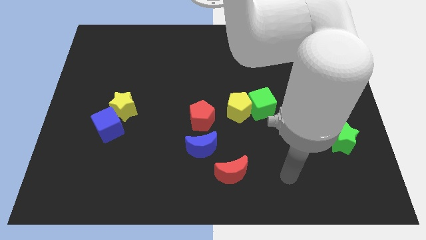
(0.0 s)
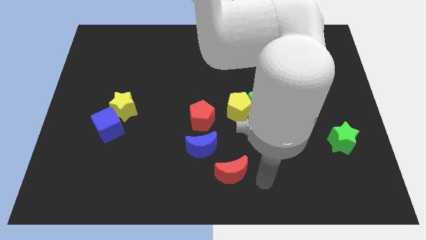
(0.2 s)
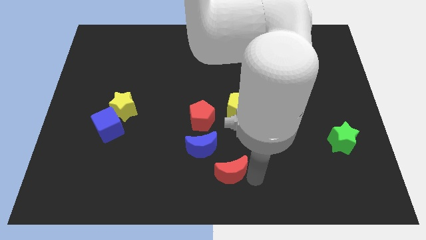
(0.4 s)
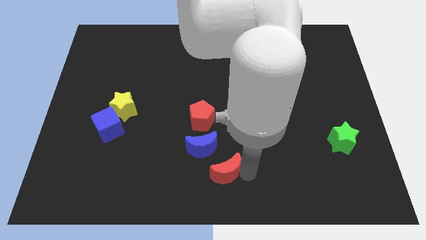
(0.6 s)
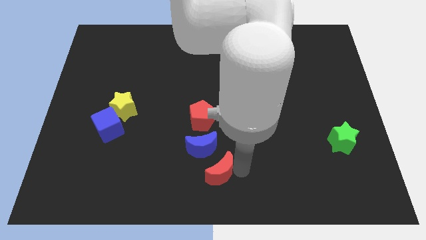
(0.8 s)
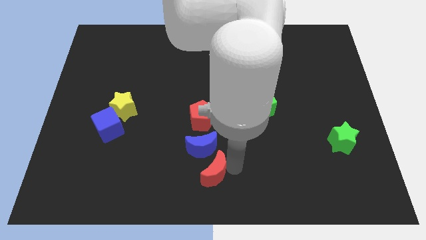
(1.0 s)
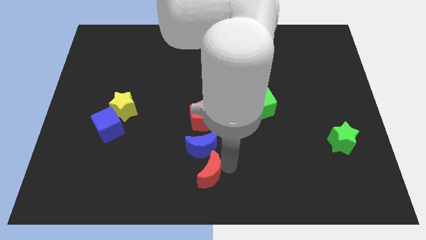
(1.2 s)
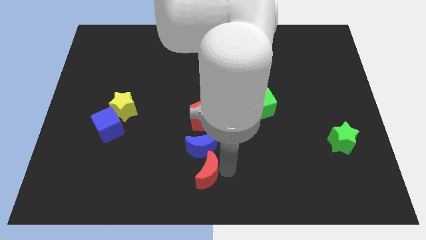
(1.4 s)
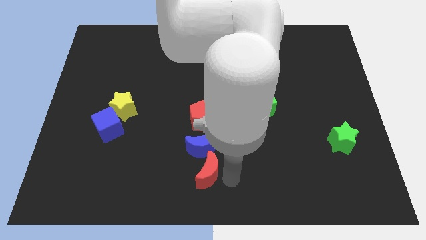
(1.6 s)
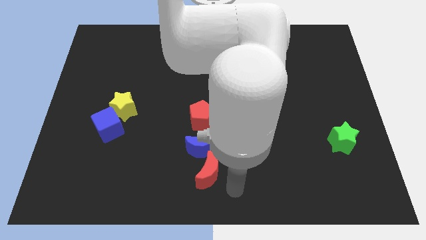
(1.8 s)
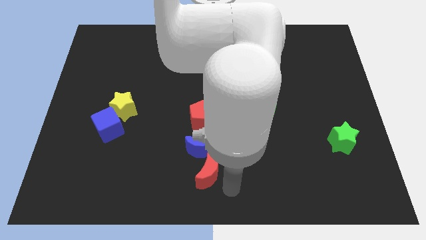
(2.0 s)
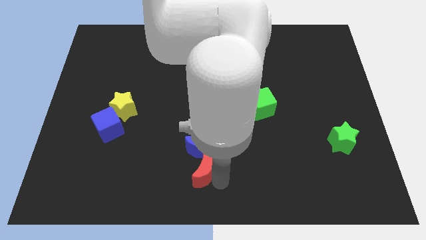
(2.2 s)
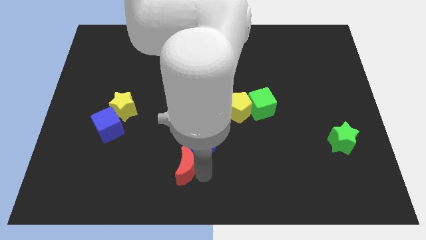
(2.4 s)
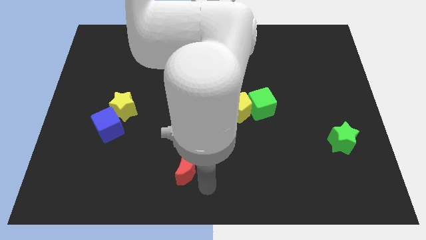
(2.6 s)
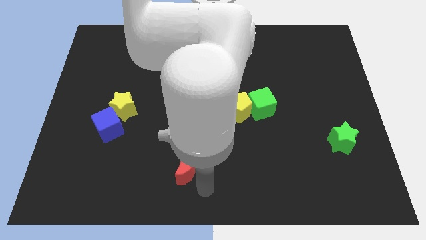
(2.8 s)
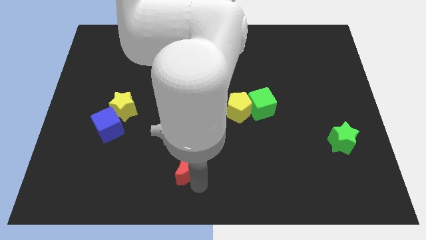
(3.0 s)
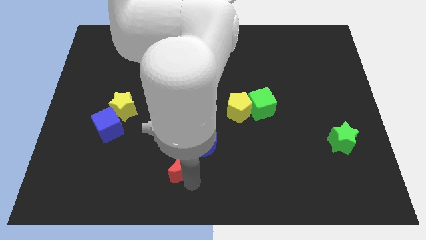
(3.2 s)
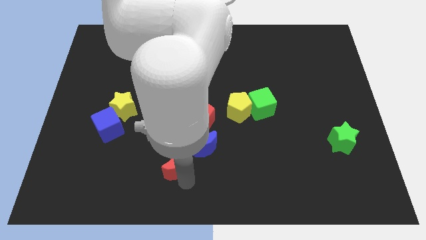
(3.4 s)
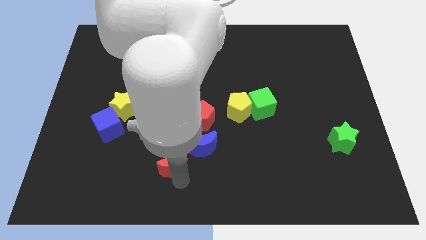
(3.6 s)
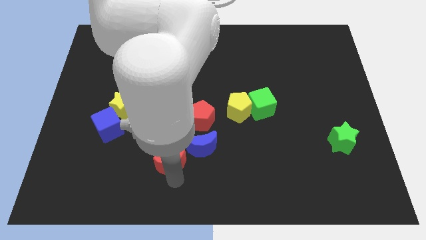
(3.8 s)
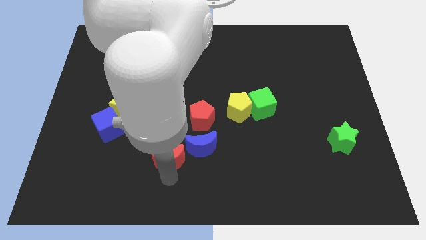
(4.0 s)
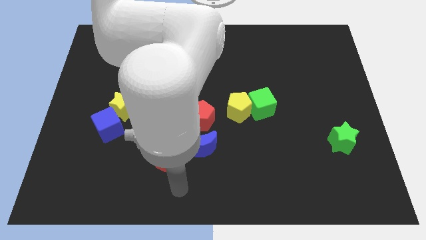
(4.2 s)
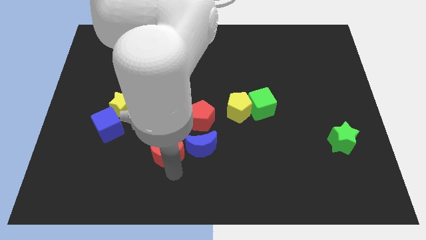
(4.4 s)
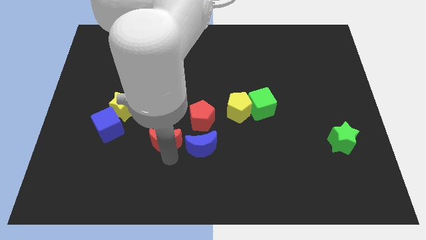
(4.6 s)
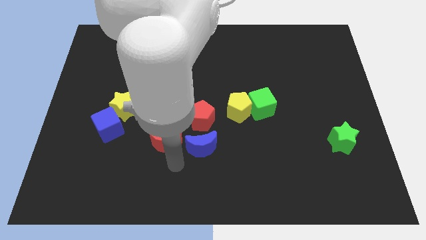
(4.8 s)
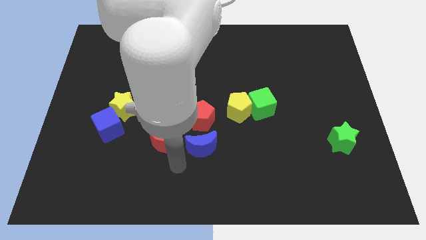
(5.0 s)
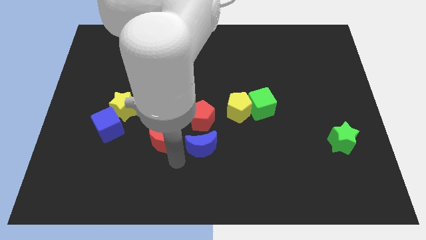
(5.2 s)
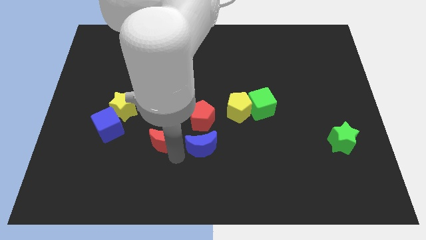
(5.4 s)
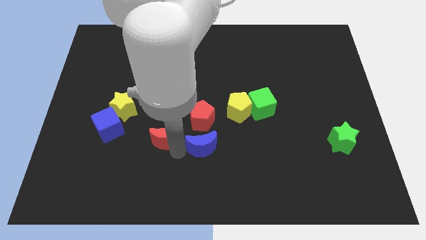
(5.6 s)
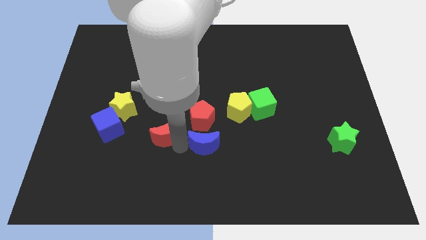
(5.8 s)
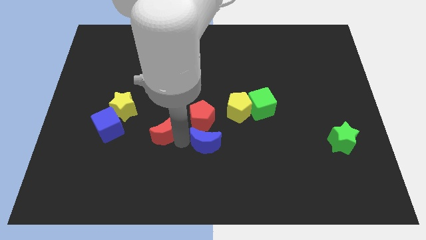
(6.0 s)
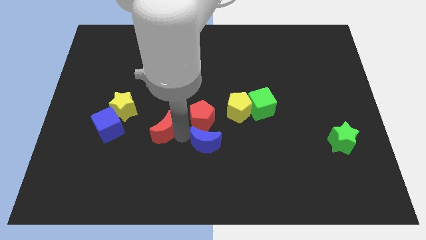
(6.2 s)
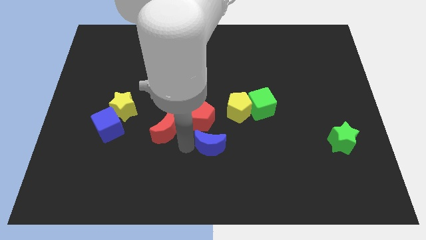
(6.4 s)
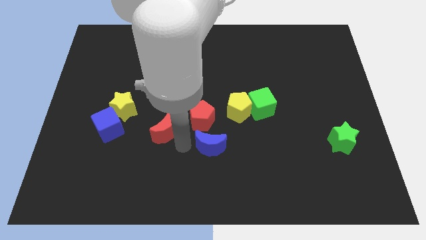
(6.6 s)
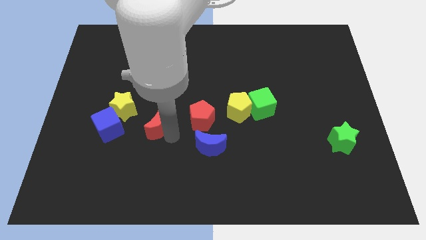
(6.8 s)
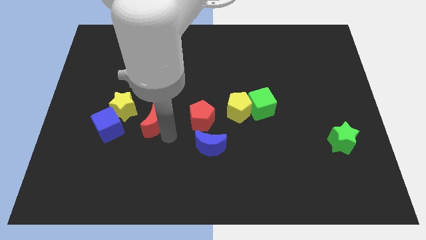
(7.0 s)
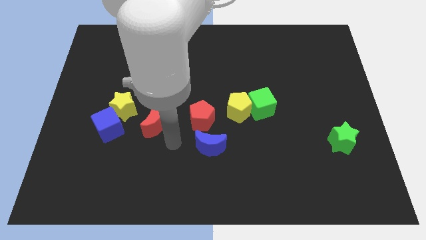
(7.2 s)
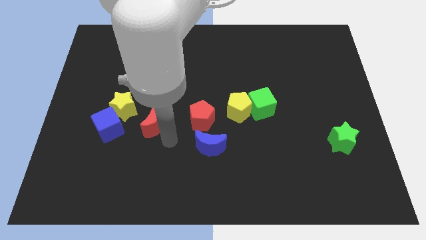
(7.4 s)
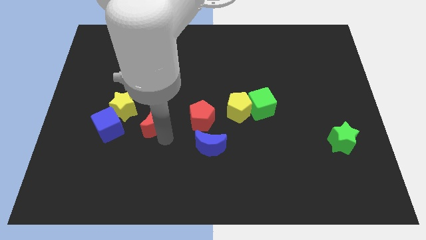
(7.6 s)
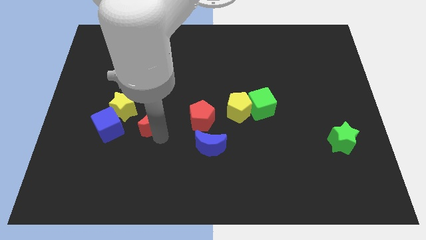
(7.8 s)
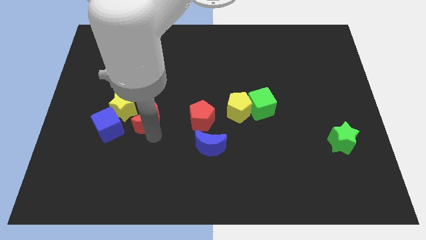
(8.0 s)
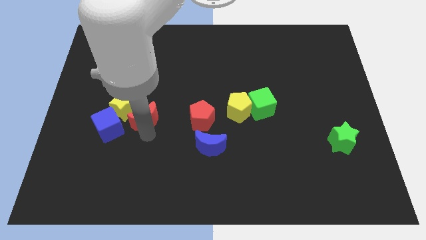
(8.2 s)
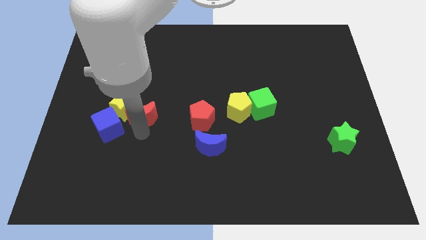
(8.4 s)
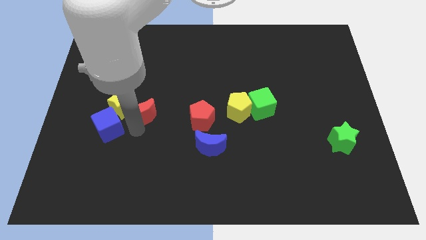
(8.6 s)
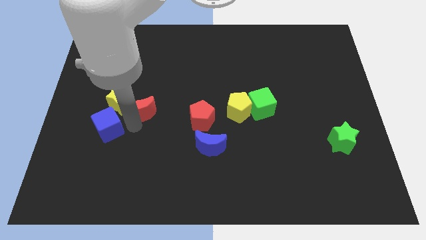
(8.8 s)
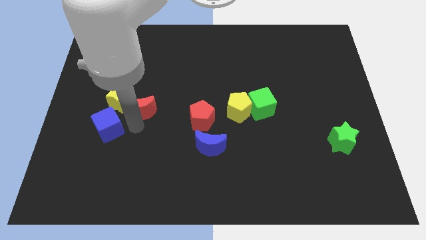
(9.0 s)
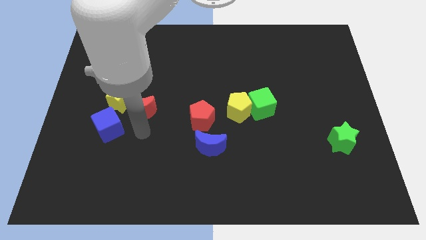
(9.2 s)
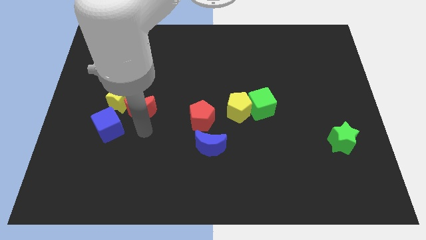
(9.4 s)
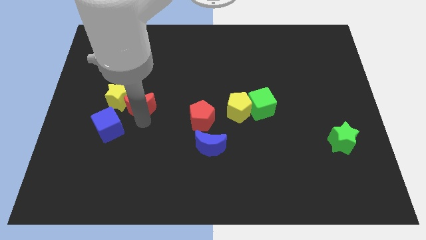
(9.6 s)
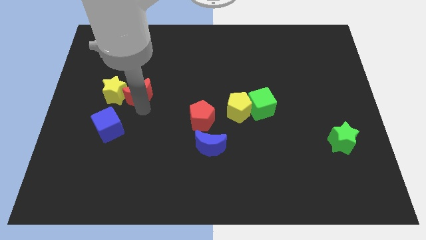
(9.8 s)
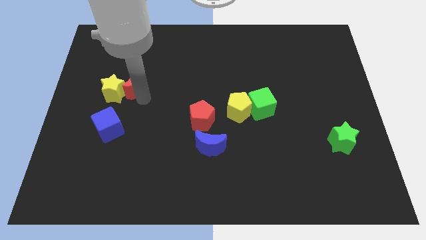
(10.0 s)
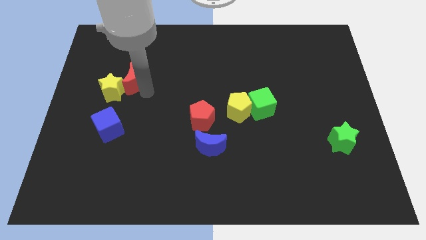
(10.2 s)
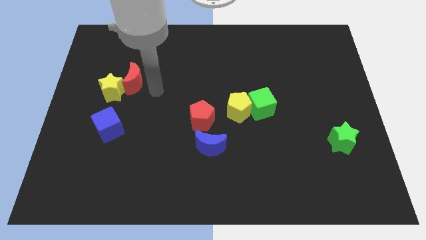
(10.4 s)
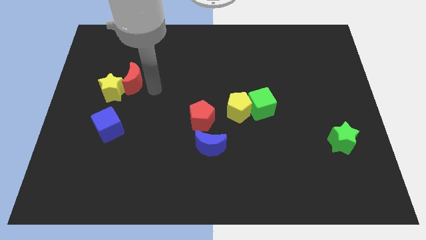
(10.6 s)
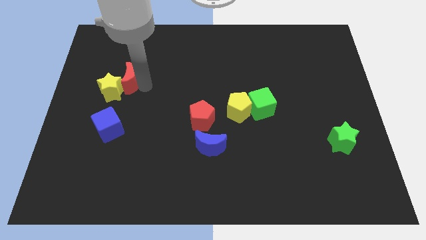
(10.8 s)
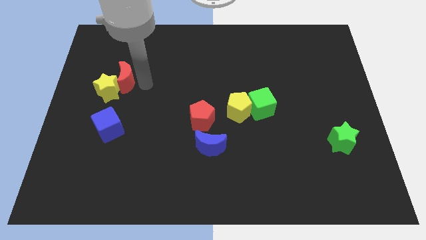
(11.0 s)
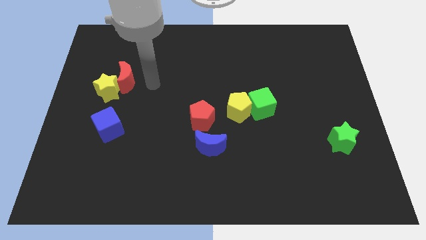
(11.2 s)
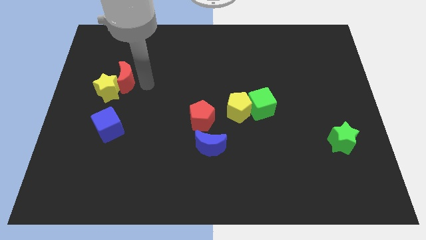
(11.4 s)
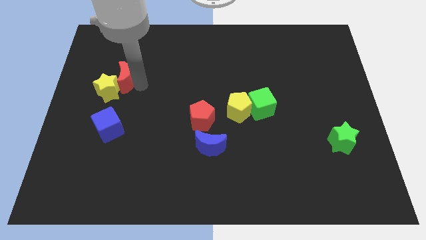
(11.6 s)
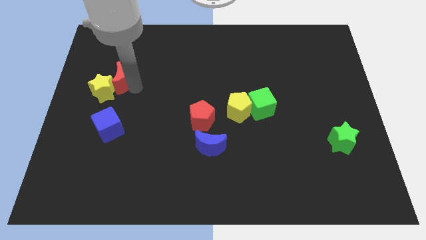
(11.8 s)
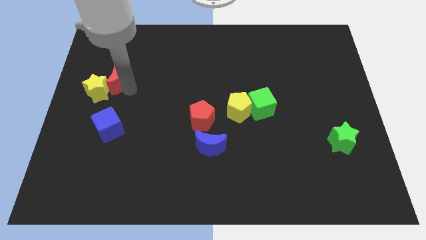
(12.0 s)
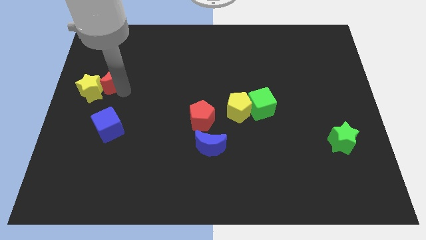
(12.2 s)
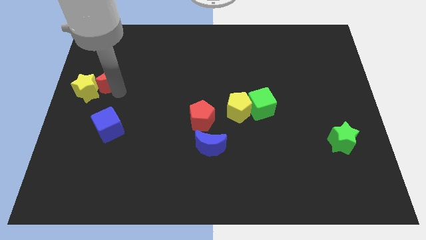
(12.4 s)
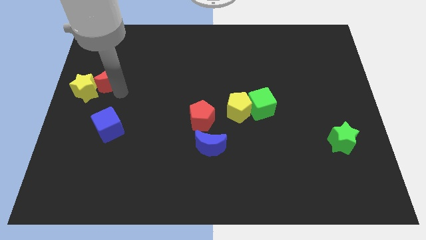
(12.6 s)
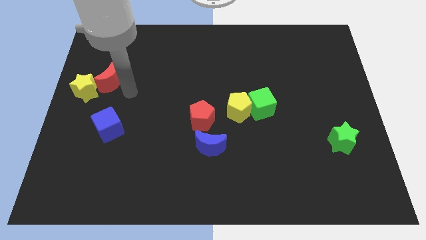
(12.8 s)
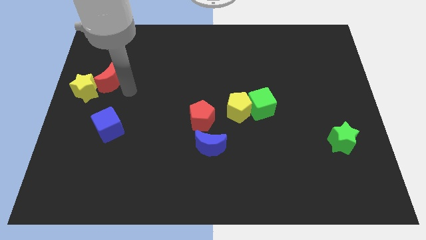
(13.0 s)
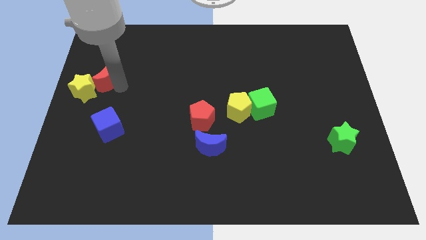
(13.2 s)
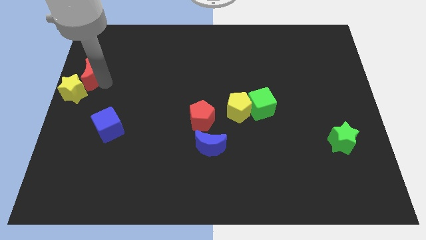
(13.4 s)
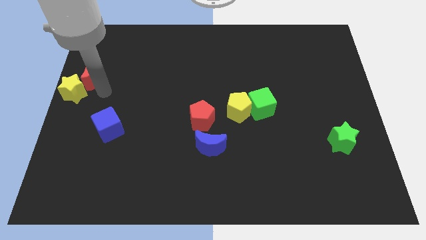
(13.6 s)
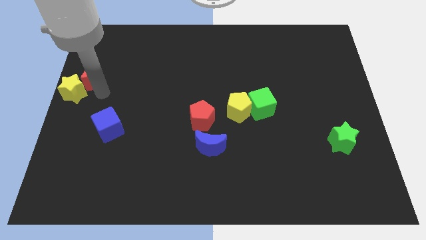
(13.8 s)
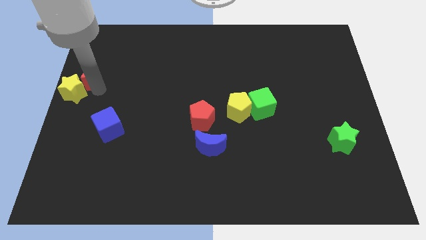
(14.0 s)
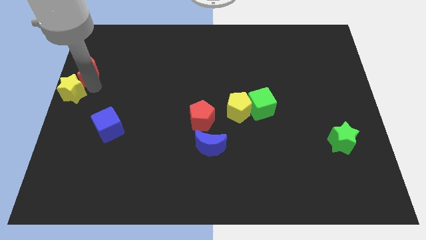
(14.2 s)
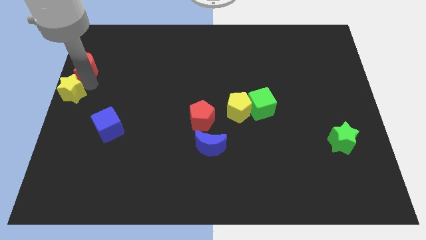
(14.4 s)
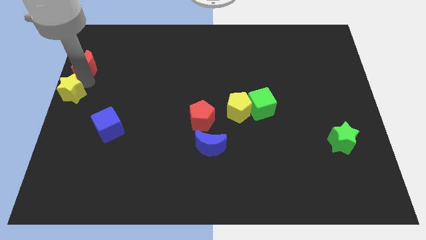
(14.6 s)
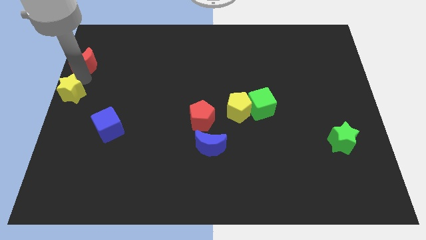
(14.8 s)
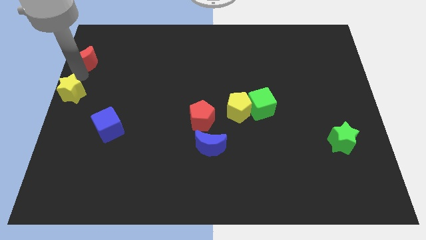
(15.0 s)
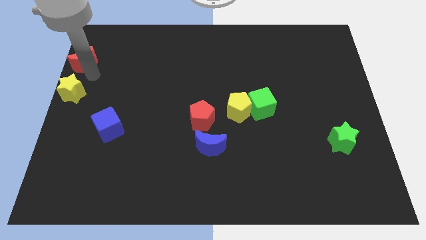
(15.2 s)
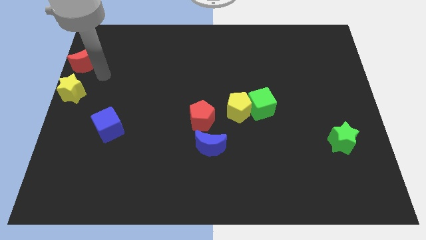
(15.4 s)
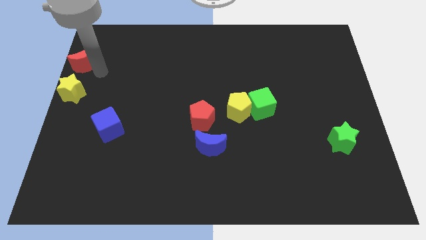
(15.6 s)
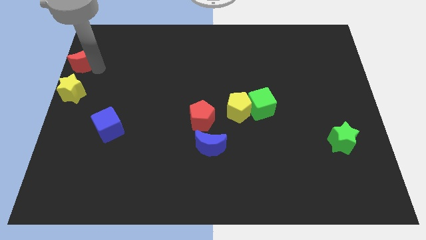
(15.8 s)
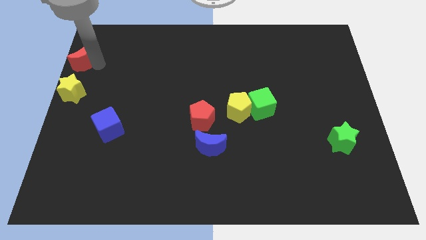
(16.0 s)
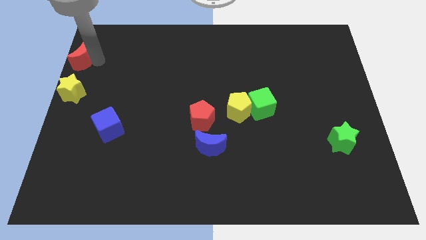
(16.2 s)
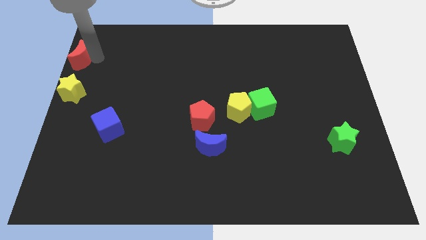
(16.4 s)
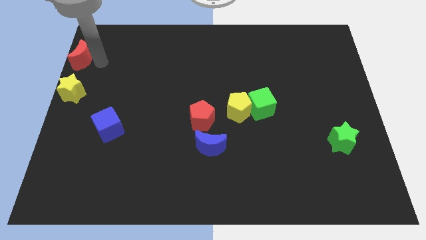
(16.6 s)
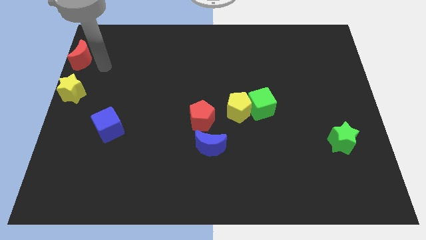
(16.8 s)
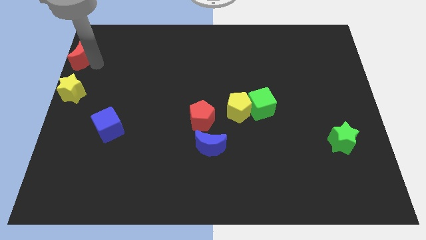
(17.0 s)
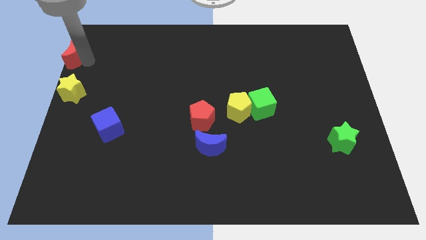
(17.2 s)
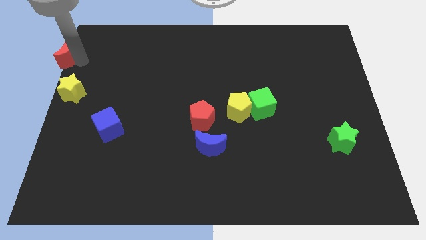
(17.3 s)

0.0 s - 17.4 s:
put the red moon to the top left corner
